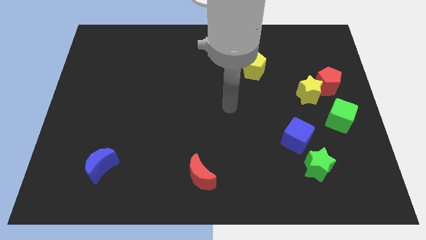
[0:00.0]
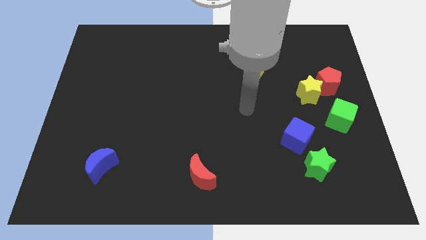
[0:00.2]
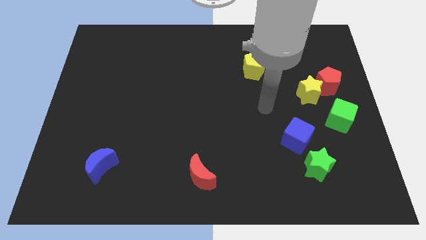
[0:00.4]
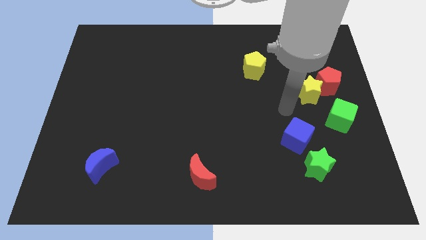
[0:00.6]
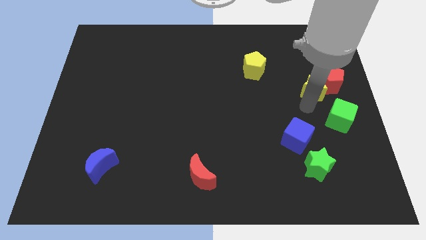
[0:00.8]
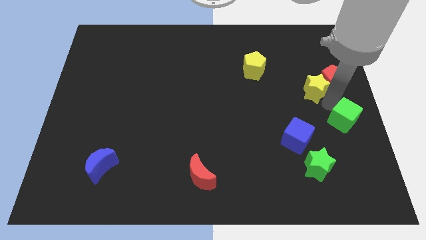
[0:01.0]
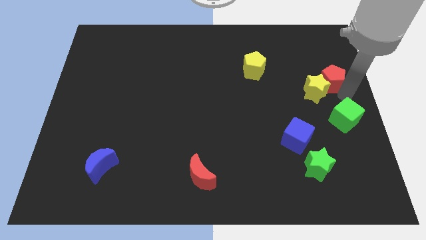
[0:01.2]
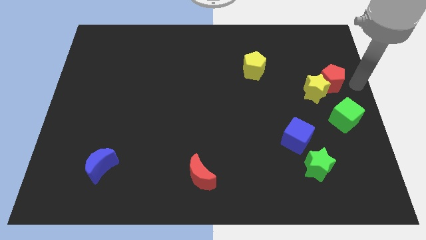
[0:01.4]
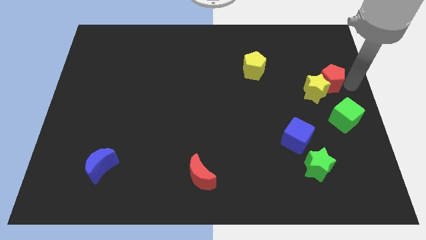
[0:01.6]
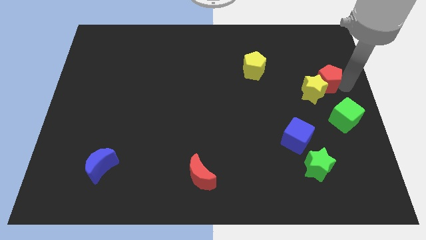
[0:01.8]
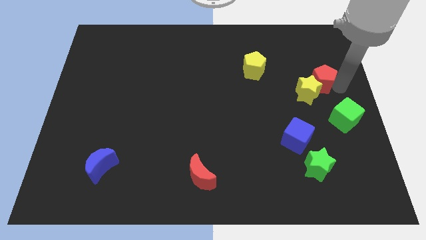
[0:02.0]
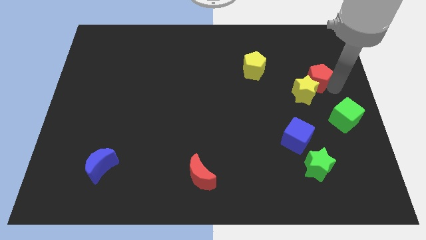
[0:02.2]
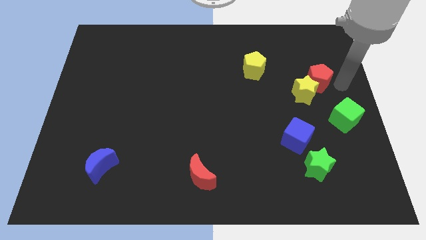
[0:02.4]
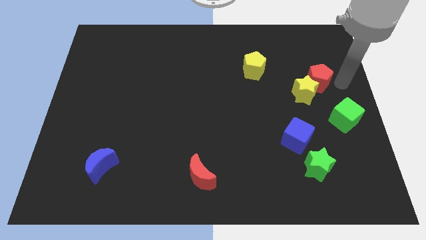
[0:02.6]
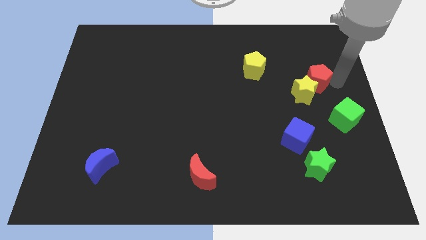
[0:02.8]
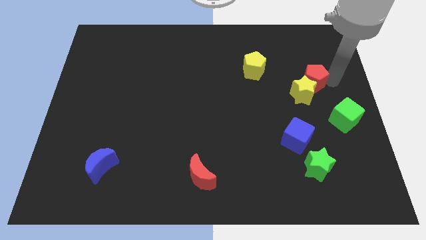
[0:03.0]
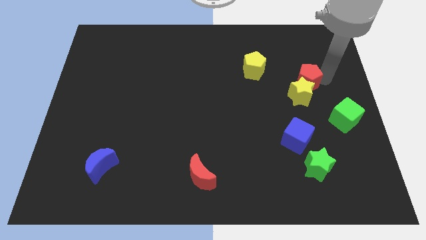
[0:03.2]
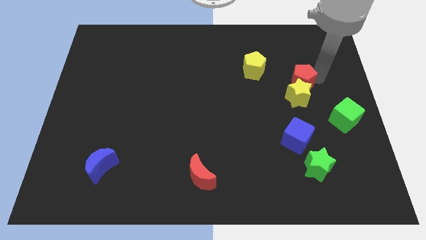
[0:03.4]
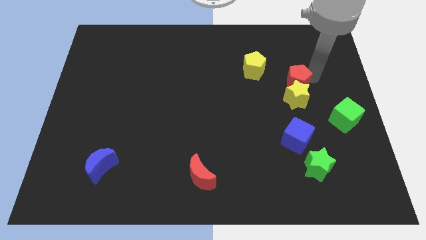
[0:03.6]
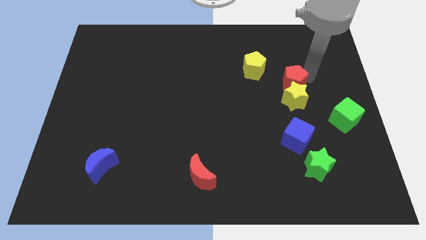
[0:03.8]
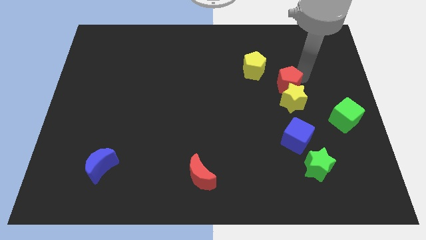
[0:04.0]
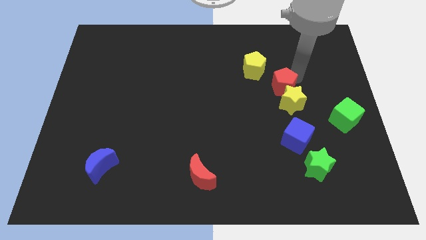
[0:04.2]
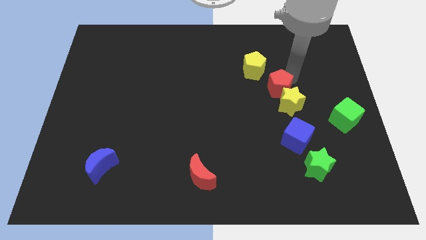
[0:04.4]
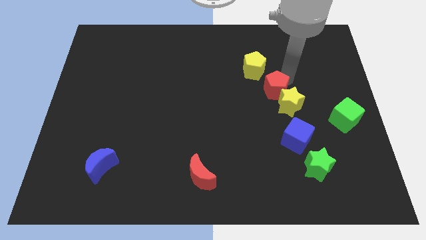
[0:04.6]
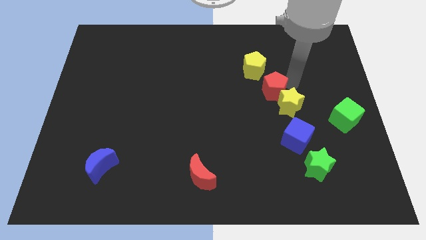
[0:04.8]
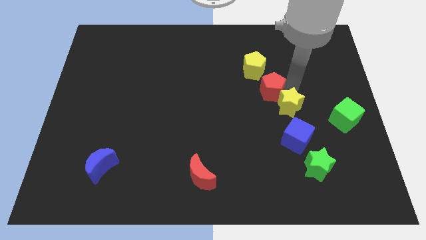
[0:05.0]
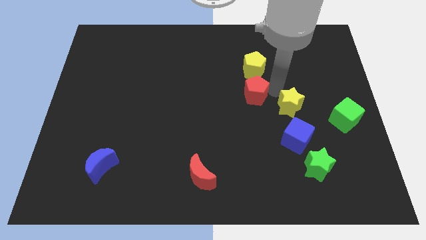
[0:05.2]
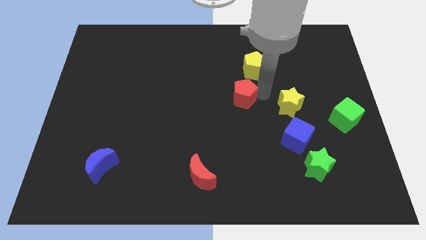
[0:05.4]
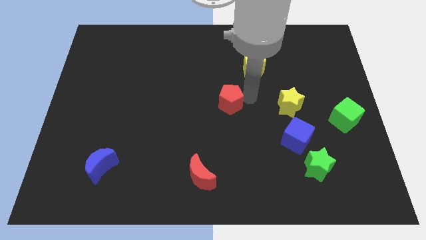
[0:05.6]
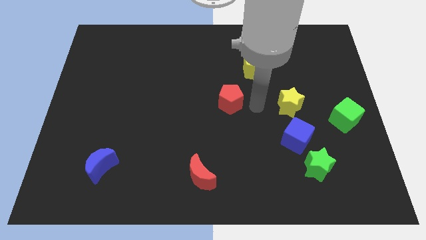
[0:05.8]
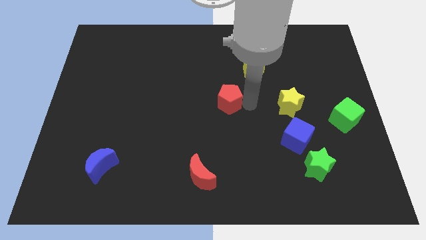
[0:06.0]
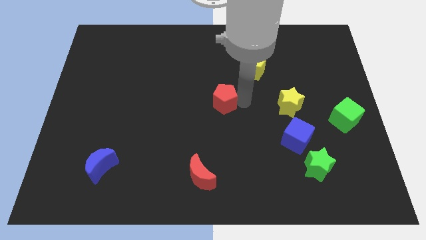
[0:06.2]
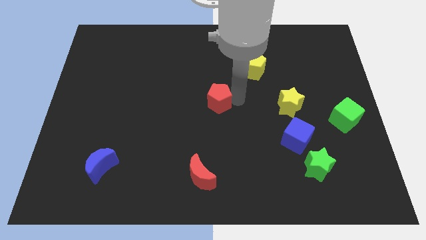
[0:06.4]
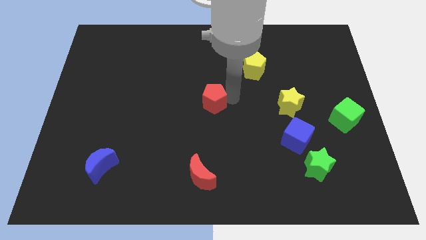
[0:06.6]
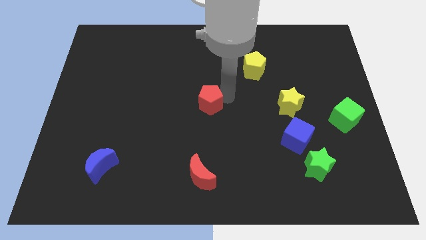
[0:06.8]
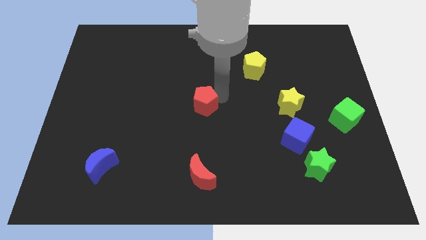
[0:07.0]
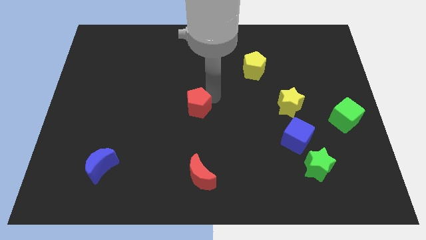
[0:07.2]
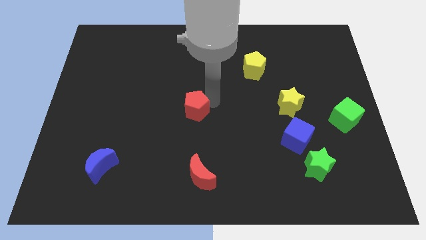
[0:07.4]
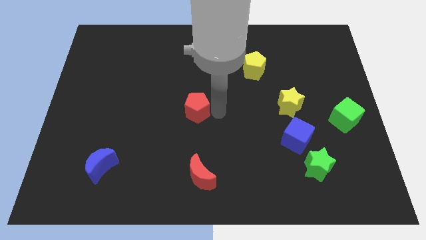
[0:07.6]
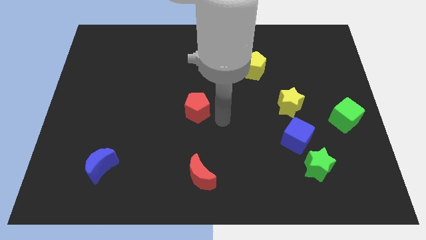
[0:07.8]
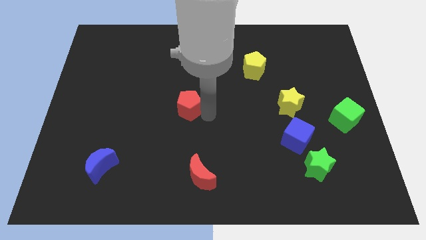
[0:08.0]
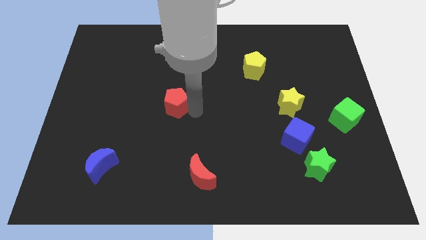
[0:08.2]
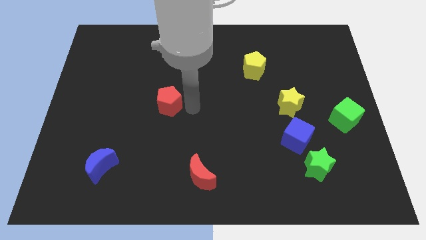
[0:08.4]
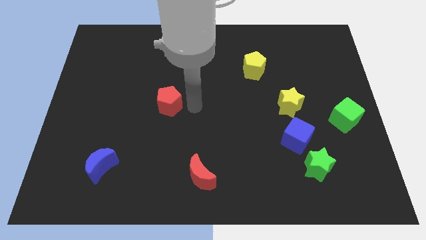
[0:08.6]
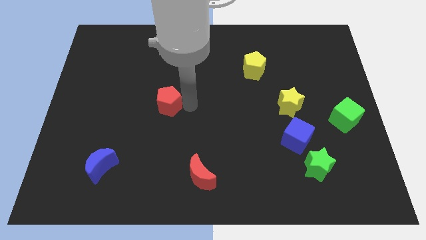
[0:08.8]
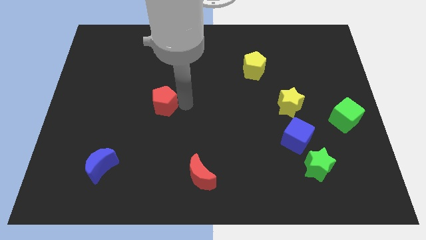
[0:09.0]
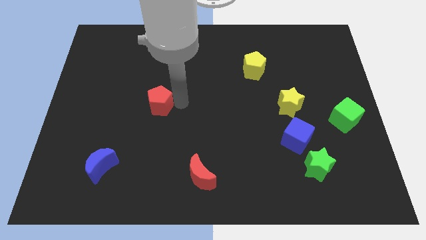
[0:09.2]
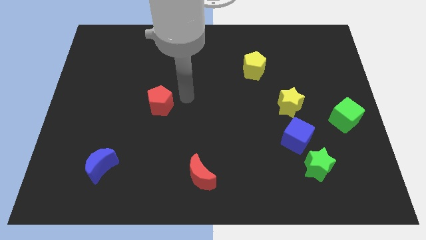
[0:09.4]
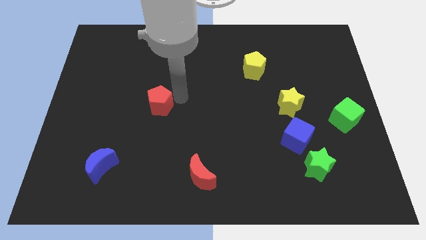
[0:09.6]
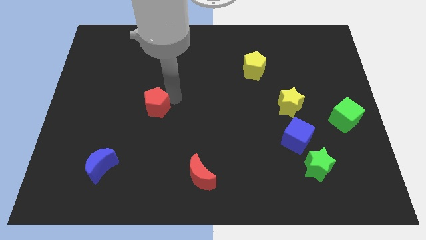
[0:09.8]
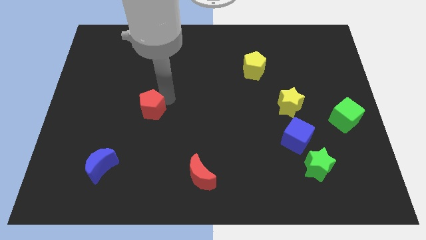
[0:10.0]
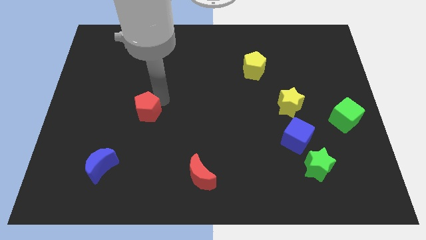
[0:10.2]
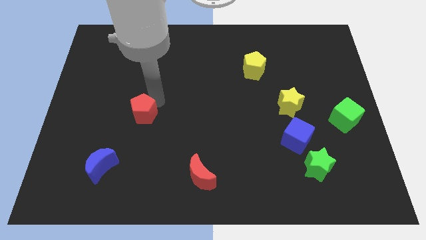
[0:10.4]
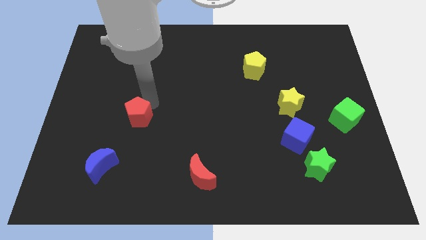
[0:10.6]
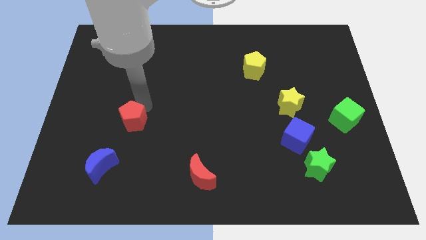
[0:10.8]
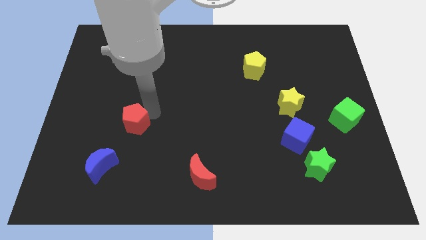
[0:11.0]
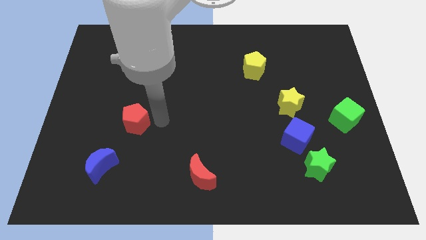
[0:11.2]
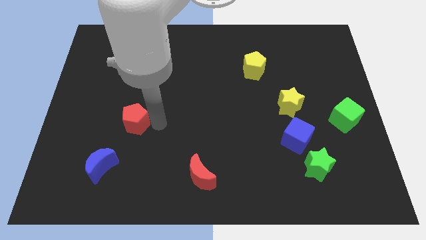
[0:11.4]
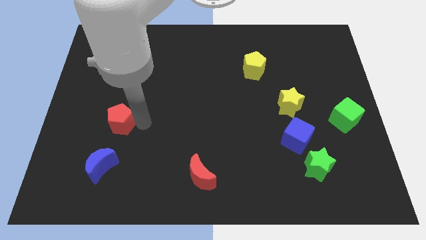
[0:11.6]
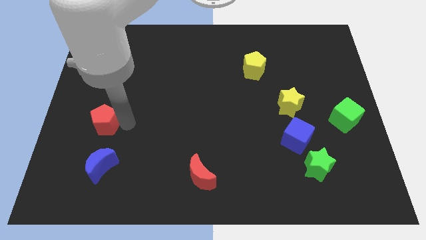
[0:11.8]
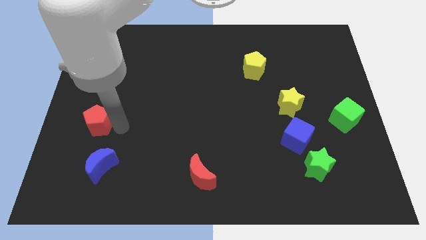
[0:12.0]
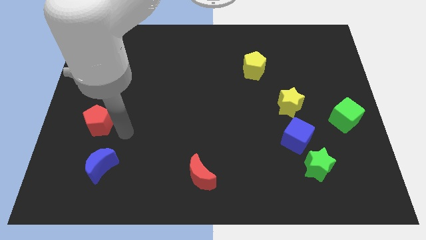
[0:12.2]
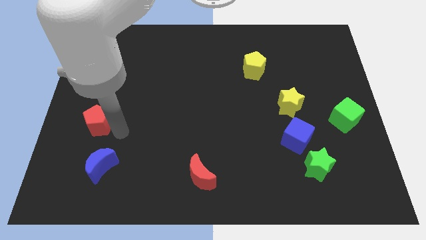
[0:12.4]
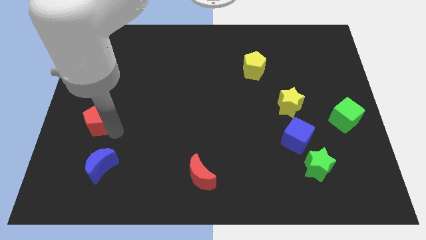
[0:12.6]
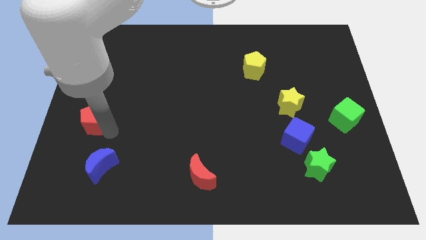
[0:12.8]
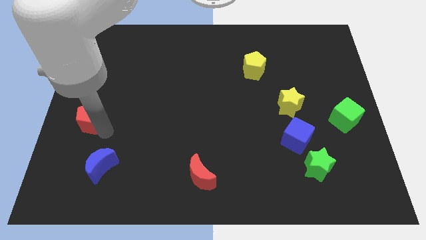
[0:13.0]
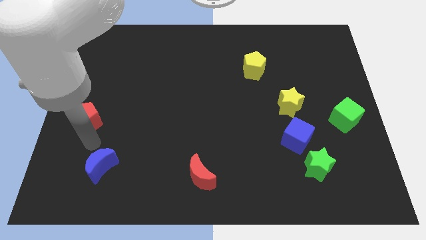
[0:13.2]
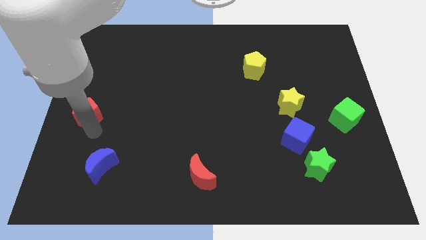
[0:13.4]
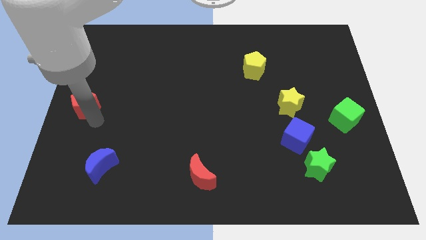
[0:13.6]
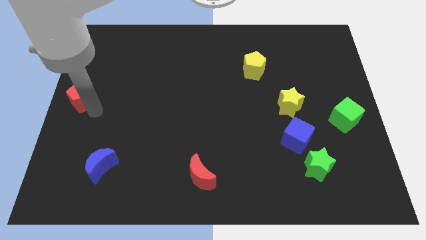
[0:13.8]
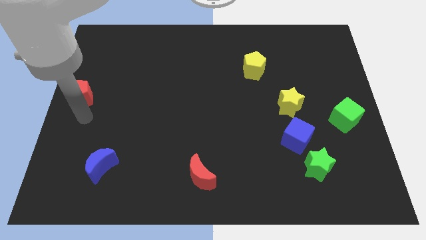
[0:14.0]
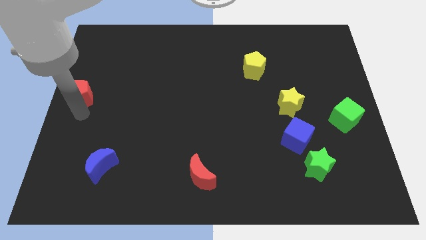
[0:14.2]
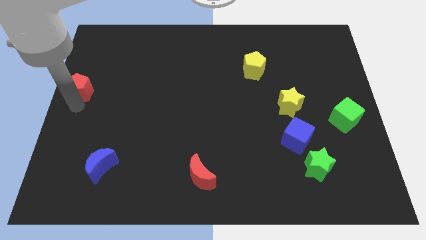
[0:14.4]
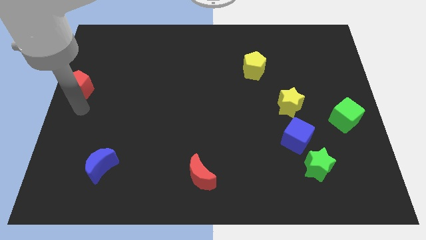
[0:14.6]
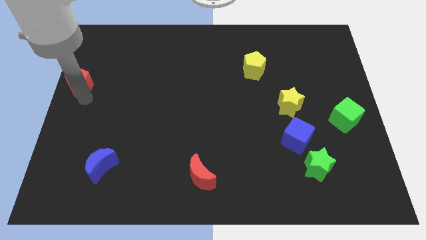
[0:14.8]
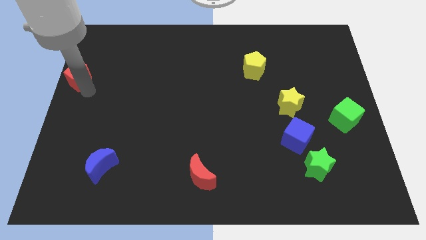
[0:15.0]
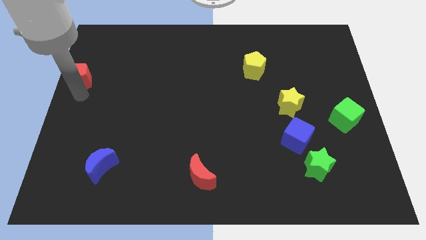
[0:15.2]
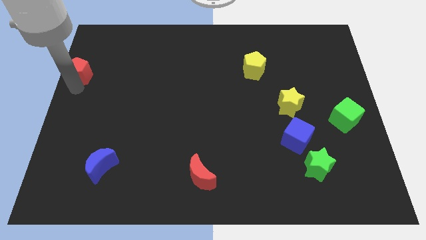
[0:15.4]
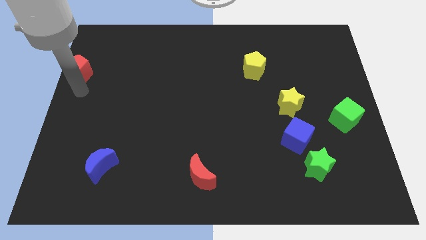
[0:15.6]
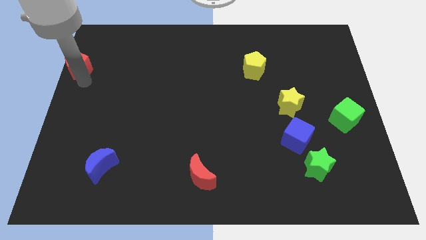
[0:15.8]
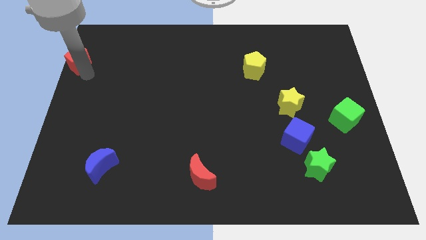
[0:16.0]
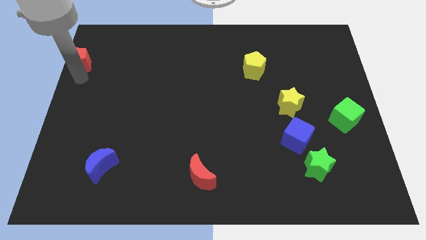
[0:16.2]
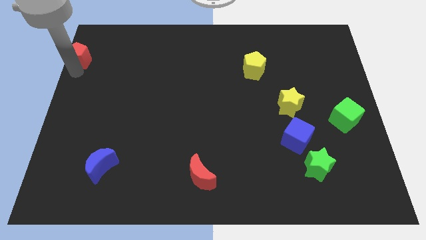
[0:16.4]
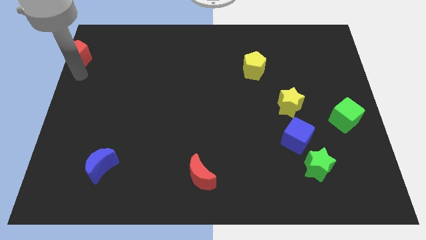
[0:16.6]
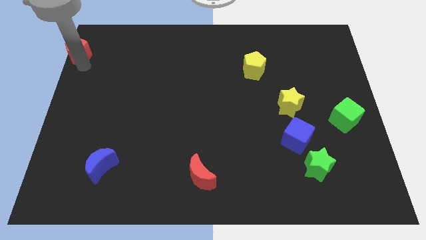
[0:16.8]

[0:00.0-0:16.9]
put the red pentagon to the upper left corner
